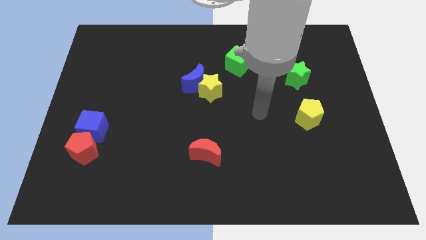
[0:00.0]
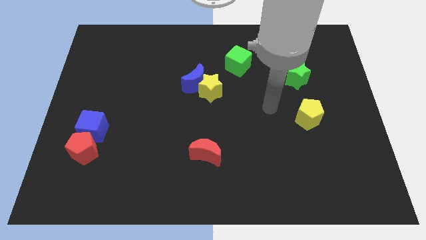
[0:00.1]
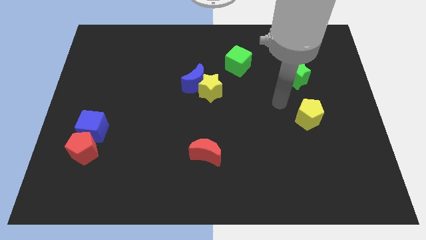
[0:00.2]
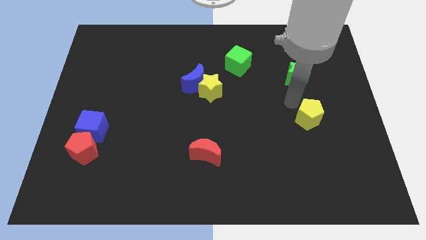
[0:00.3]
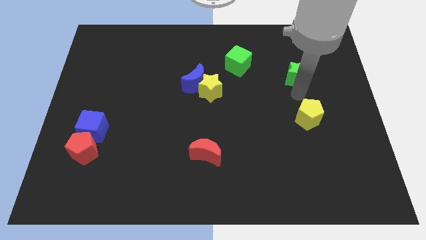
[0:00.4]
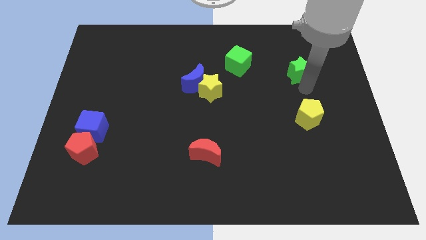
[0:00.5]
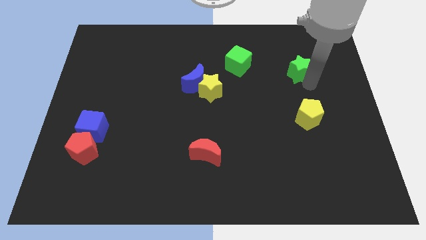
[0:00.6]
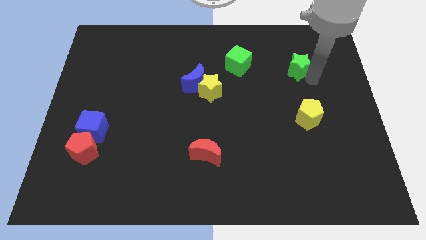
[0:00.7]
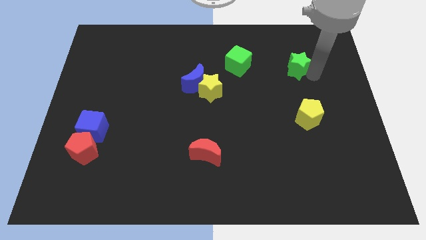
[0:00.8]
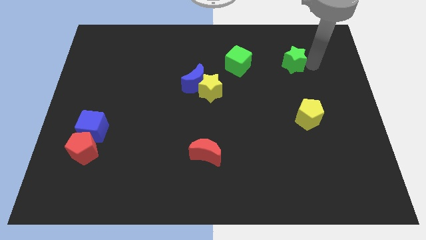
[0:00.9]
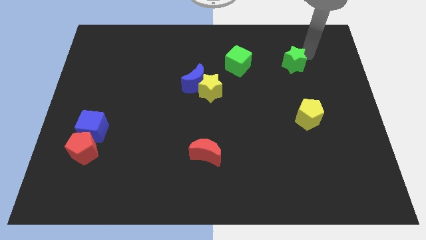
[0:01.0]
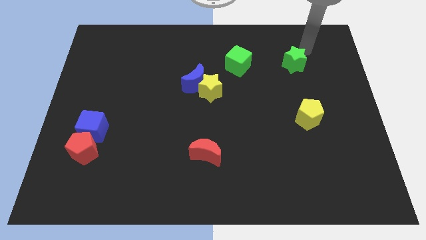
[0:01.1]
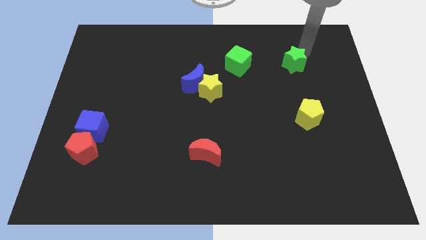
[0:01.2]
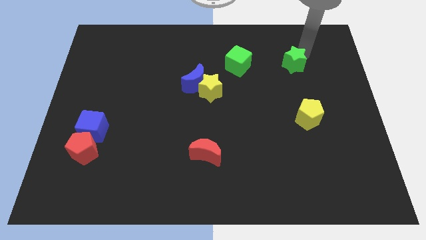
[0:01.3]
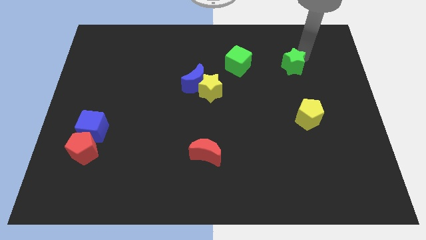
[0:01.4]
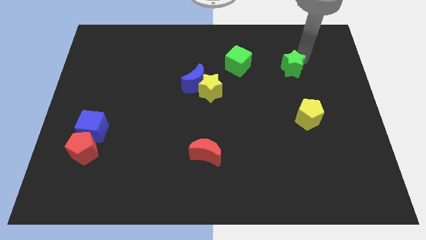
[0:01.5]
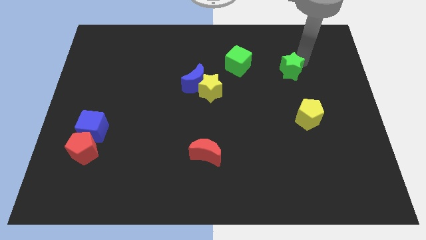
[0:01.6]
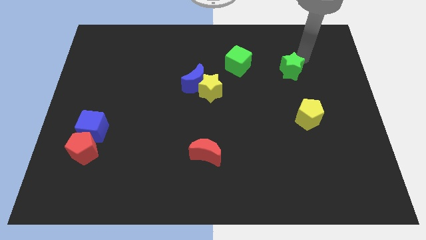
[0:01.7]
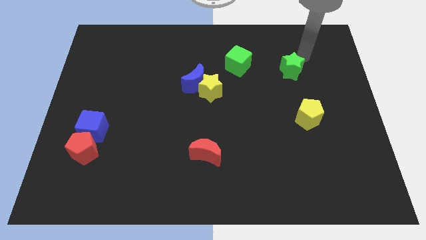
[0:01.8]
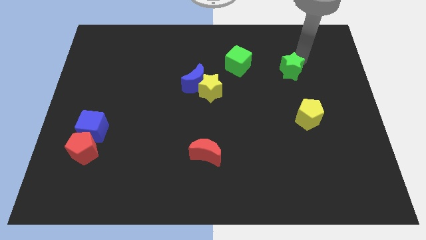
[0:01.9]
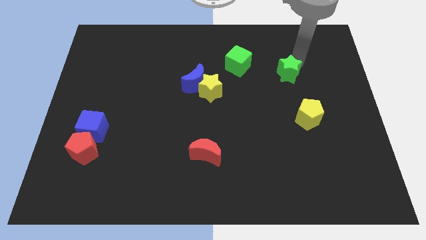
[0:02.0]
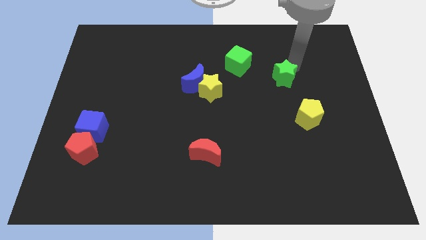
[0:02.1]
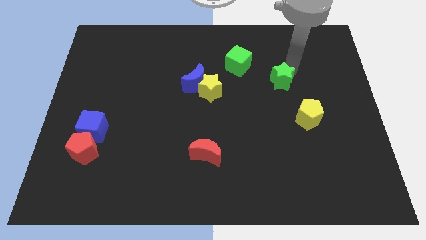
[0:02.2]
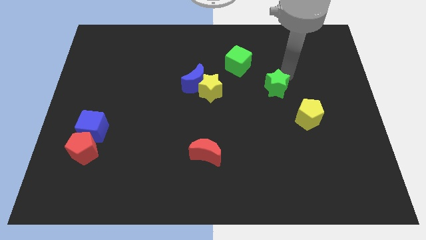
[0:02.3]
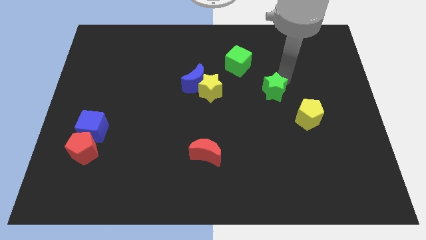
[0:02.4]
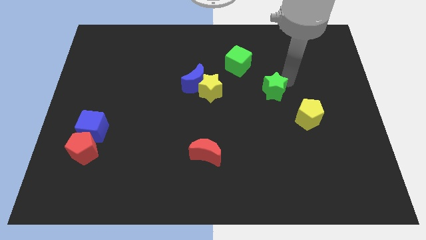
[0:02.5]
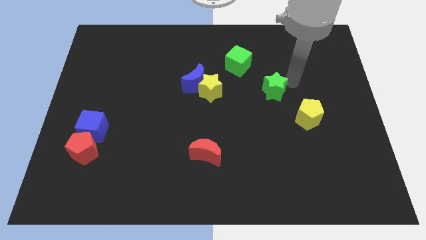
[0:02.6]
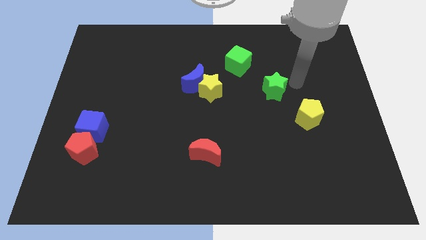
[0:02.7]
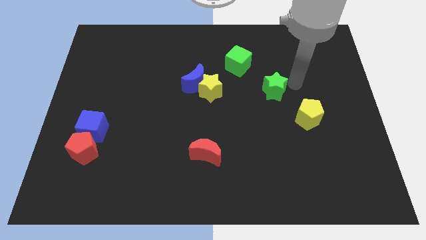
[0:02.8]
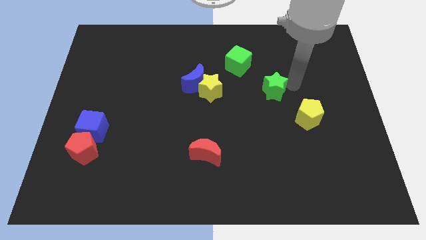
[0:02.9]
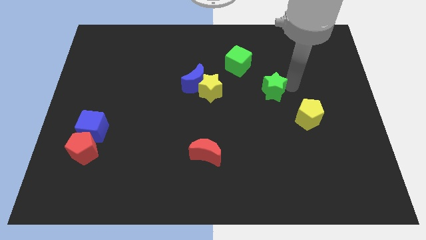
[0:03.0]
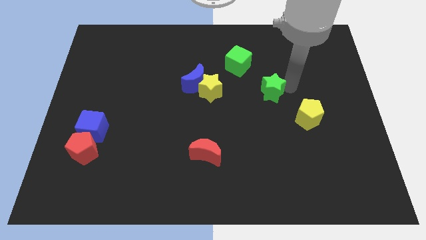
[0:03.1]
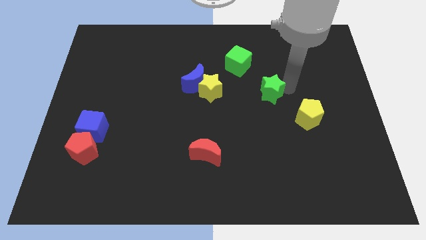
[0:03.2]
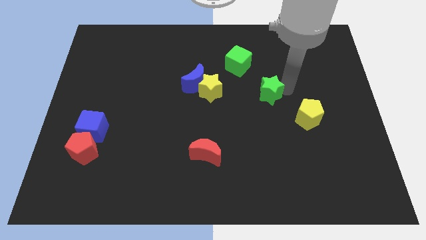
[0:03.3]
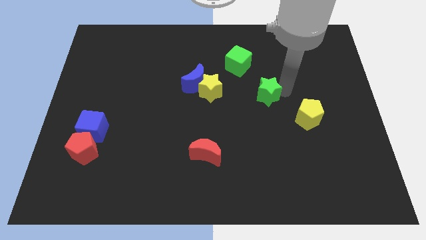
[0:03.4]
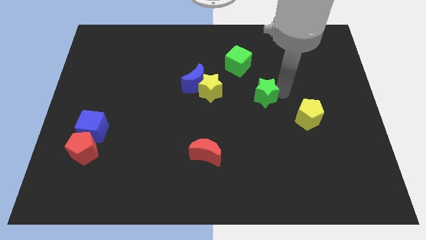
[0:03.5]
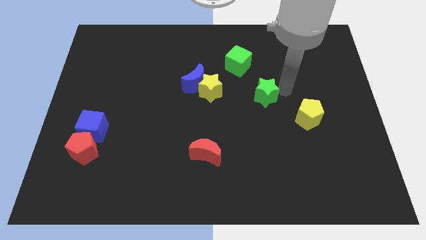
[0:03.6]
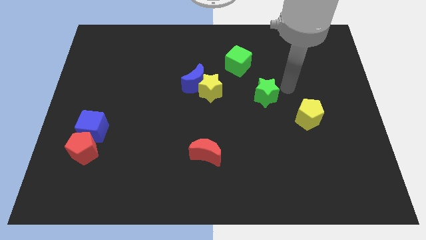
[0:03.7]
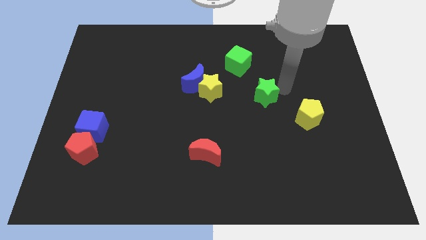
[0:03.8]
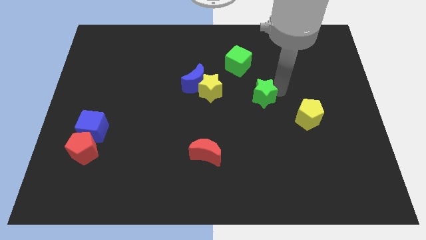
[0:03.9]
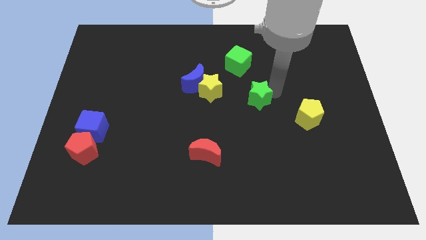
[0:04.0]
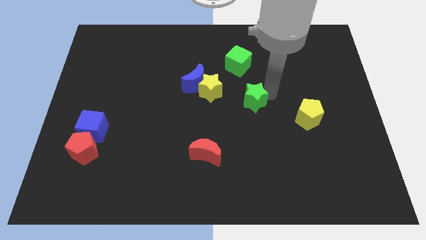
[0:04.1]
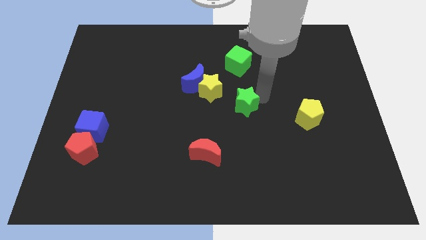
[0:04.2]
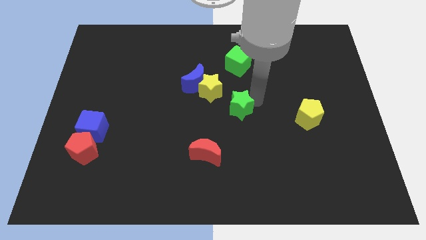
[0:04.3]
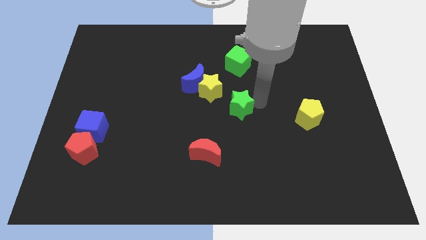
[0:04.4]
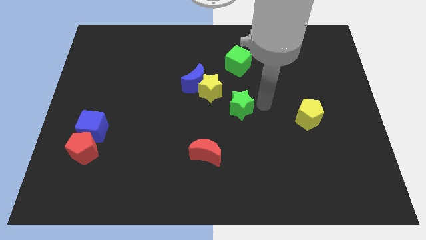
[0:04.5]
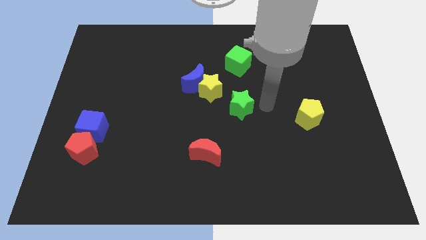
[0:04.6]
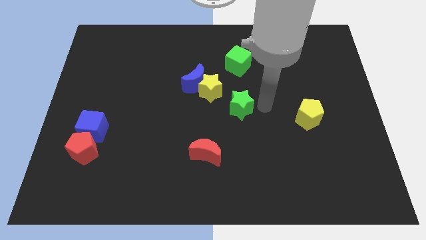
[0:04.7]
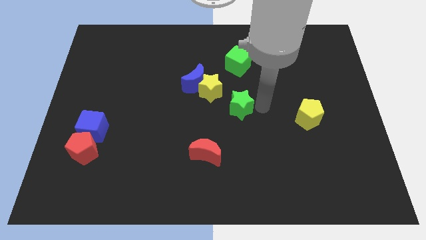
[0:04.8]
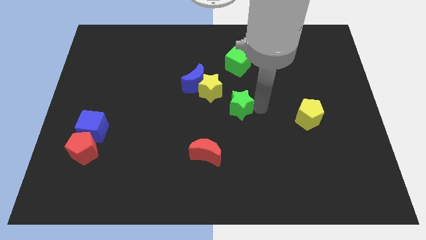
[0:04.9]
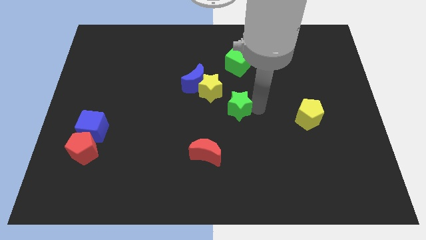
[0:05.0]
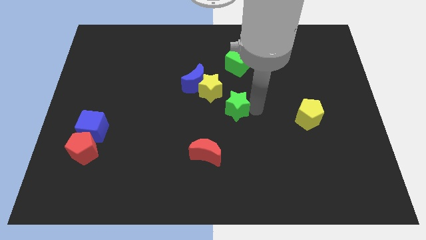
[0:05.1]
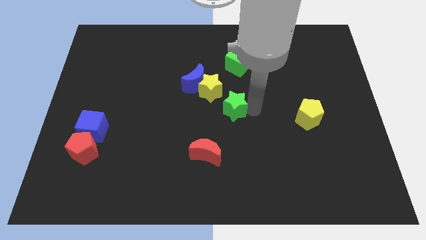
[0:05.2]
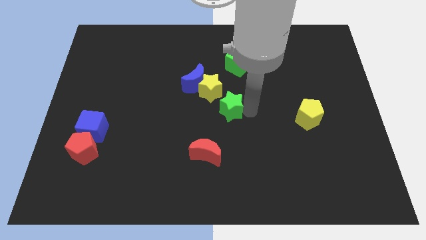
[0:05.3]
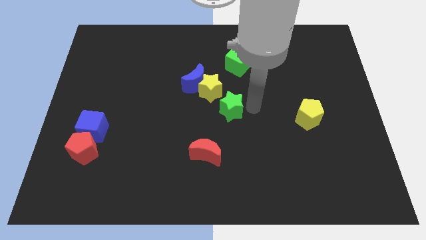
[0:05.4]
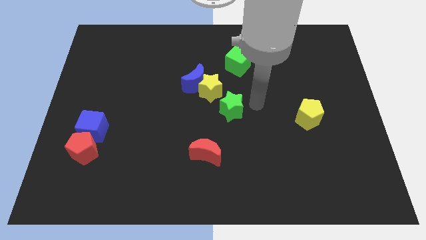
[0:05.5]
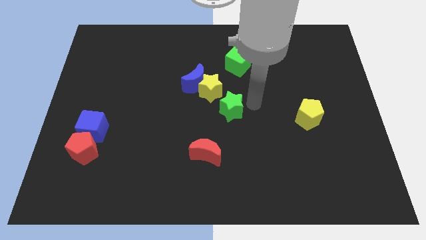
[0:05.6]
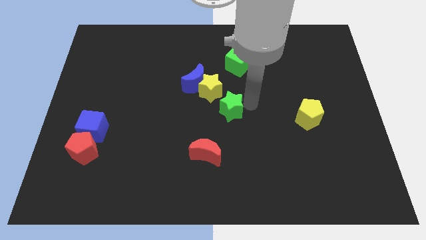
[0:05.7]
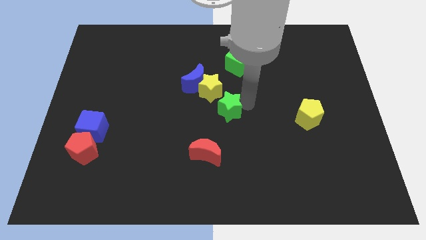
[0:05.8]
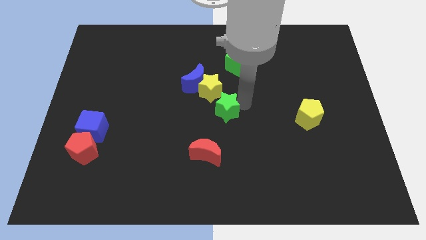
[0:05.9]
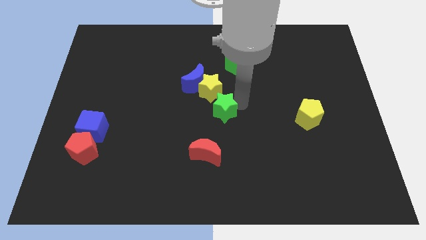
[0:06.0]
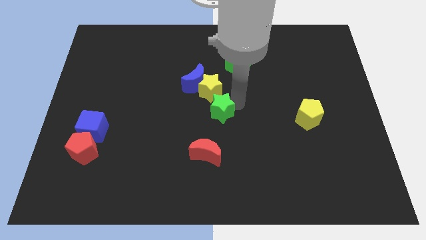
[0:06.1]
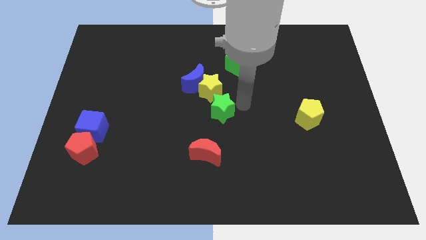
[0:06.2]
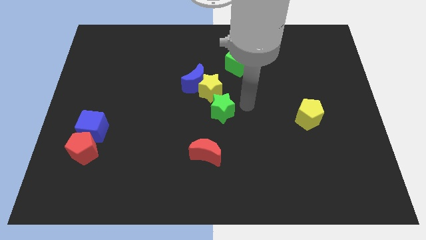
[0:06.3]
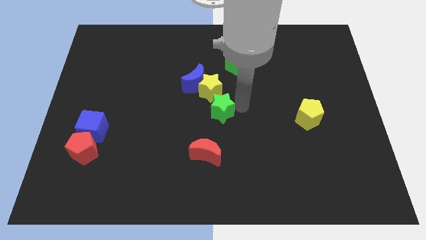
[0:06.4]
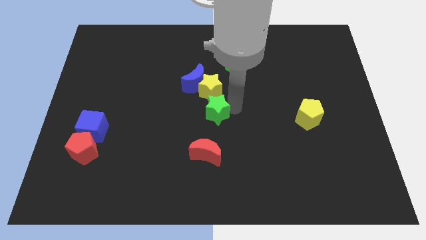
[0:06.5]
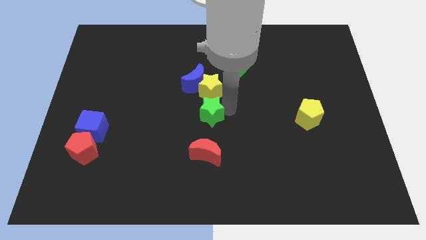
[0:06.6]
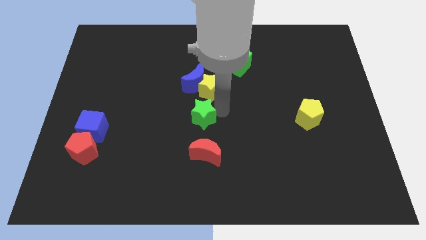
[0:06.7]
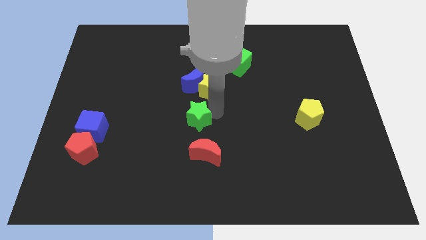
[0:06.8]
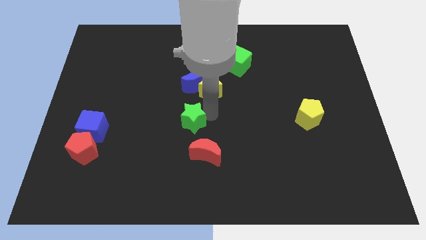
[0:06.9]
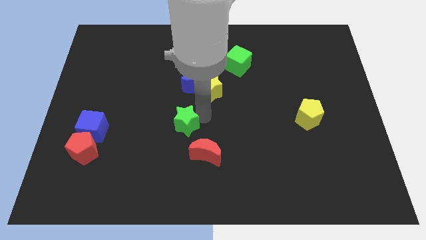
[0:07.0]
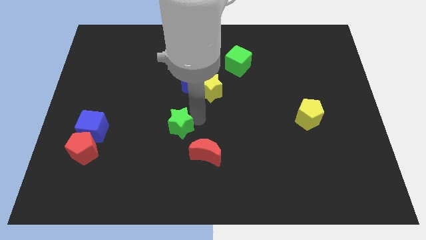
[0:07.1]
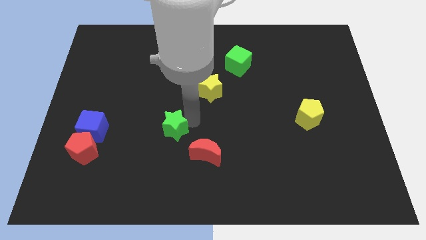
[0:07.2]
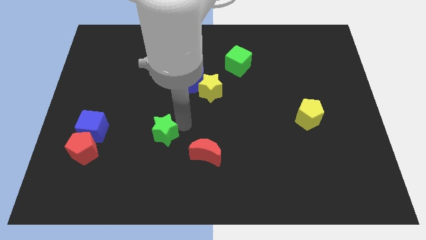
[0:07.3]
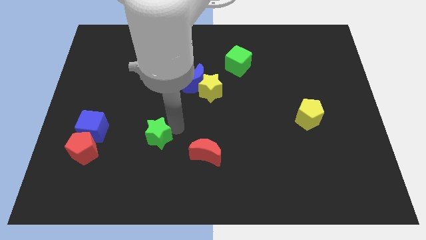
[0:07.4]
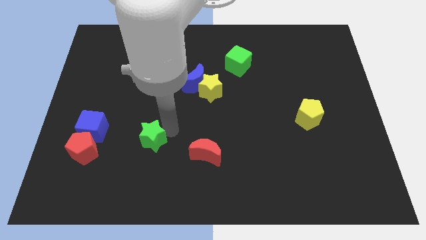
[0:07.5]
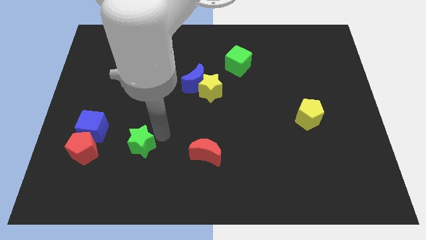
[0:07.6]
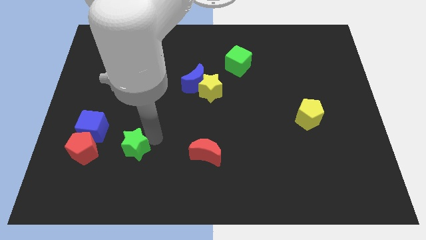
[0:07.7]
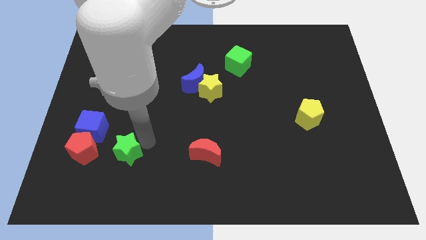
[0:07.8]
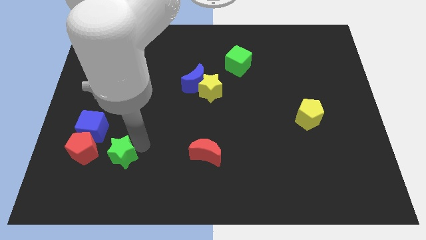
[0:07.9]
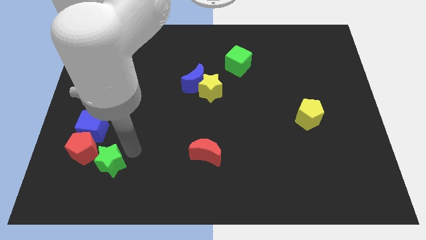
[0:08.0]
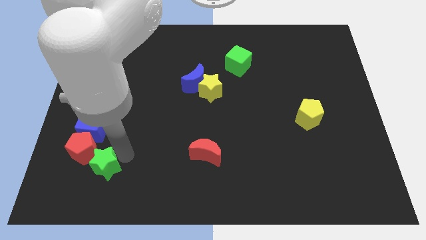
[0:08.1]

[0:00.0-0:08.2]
slide the green star to the bottom side of the blue cube
